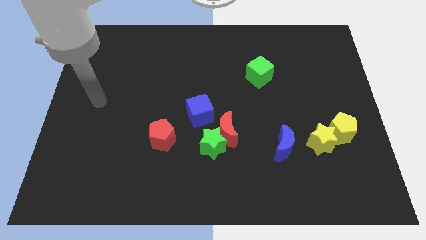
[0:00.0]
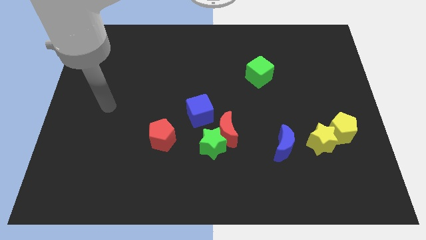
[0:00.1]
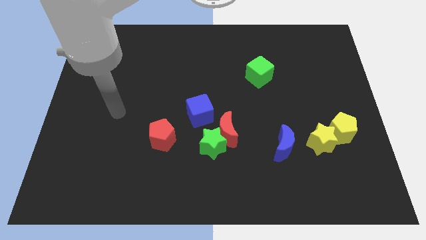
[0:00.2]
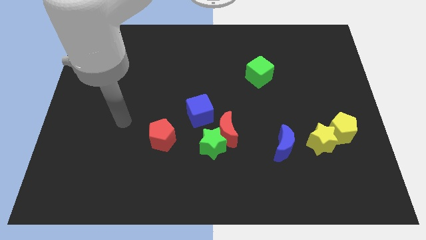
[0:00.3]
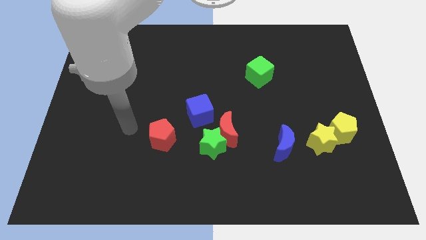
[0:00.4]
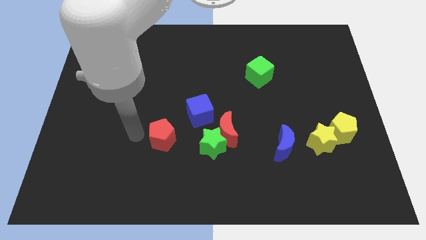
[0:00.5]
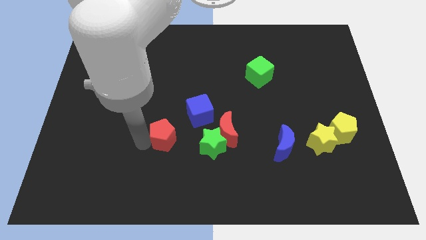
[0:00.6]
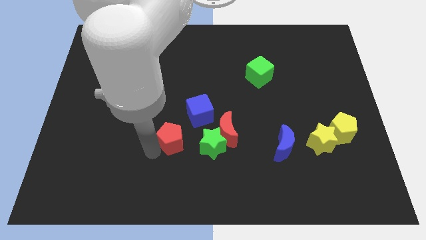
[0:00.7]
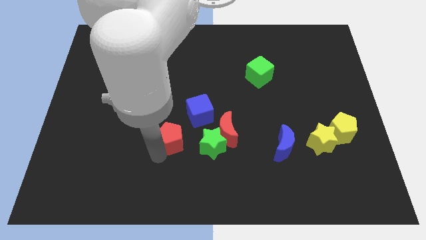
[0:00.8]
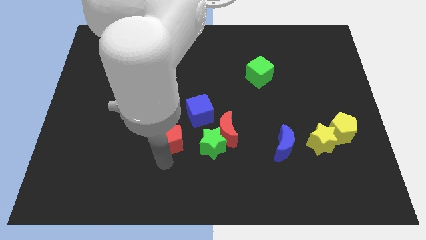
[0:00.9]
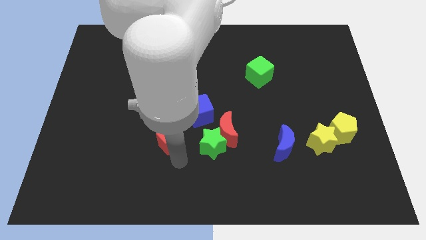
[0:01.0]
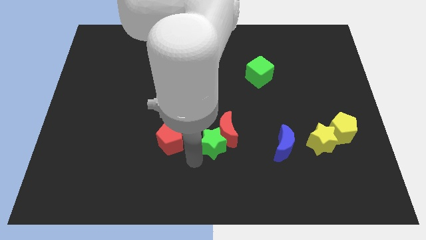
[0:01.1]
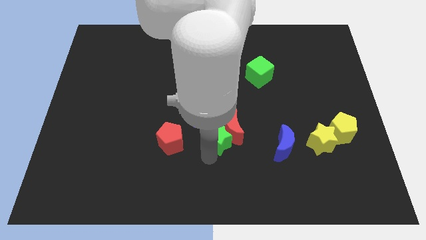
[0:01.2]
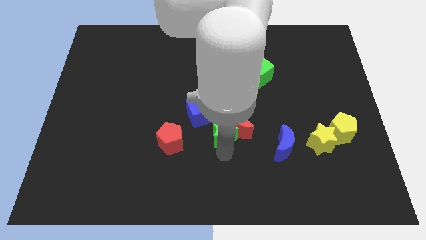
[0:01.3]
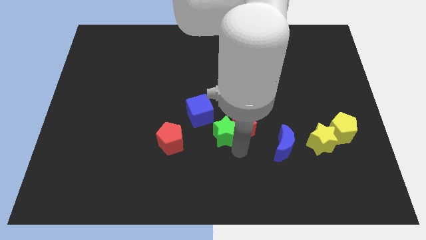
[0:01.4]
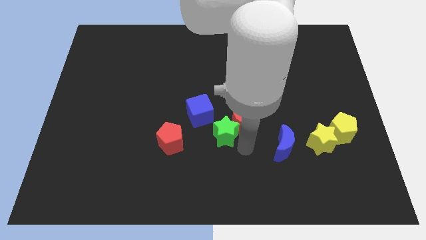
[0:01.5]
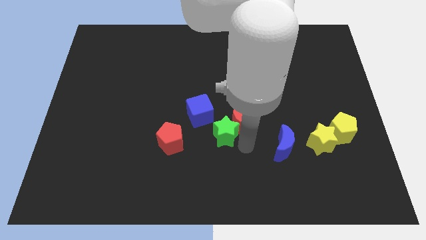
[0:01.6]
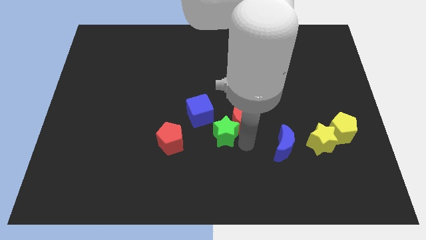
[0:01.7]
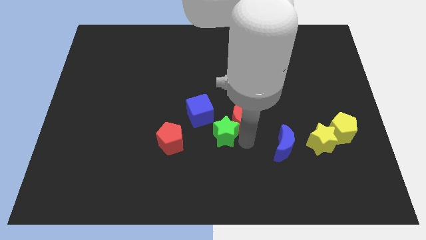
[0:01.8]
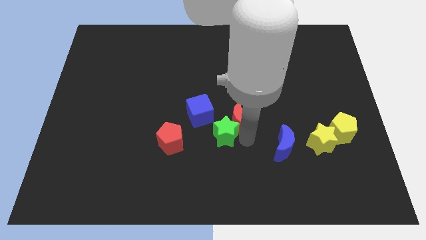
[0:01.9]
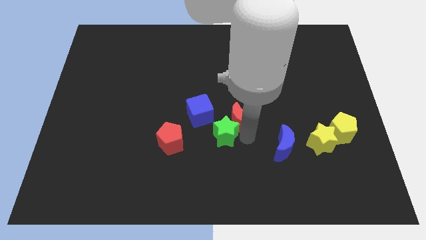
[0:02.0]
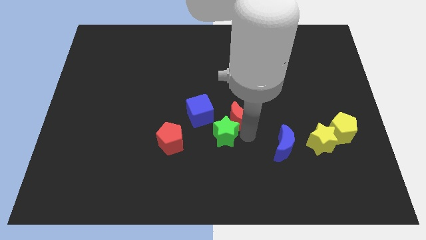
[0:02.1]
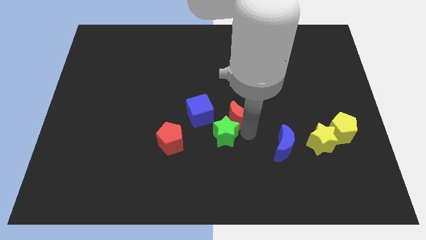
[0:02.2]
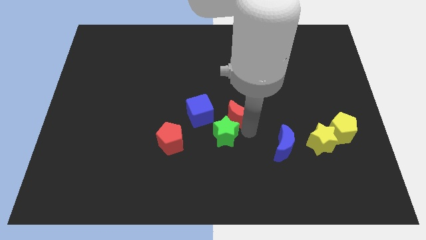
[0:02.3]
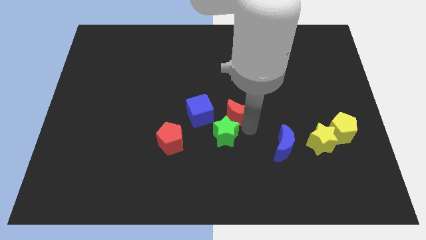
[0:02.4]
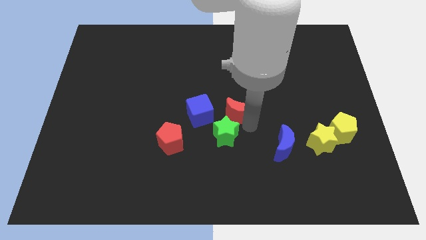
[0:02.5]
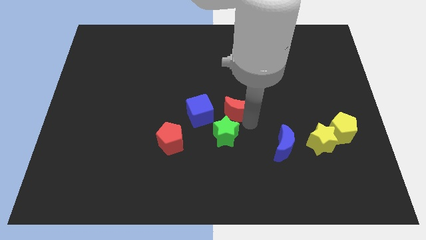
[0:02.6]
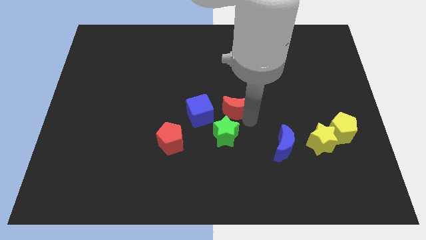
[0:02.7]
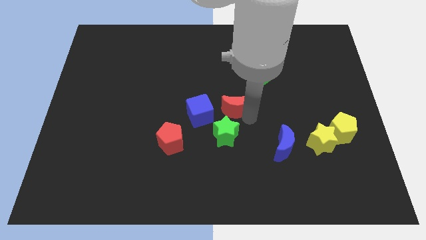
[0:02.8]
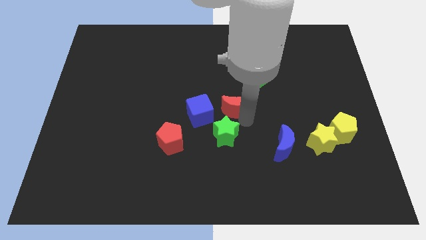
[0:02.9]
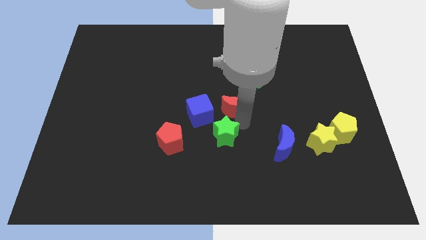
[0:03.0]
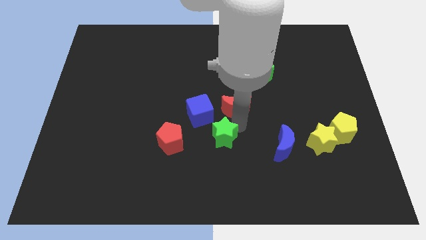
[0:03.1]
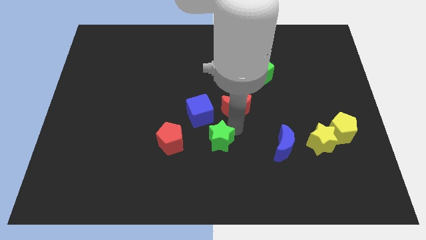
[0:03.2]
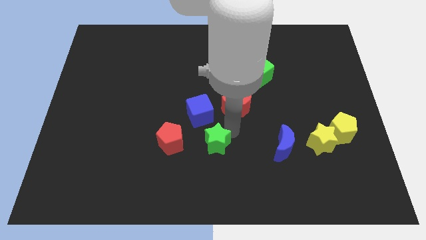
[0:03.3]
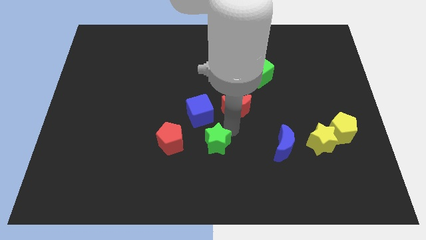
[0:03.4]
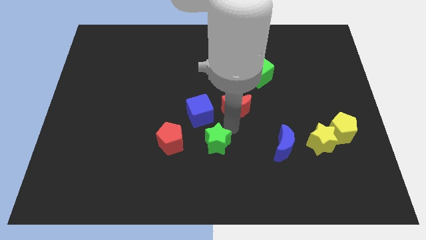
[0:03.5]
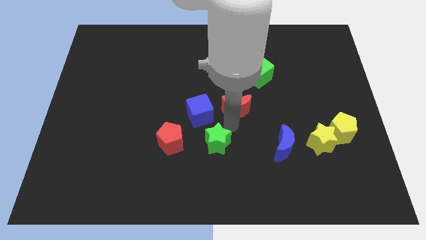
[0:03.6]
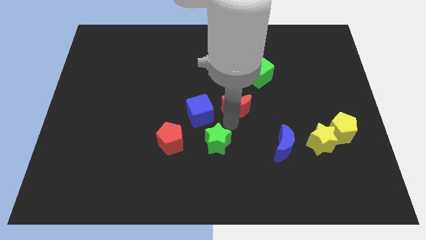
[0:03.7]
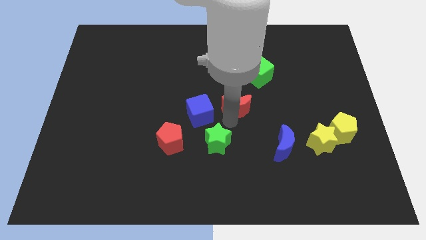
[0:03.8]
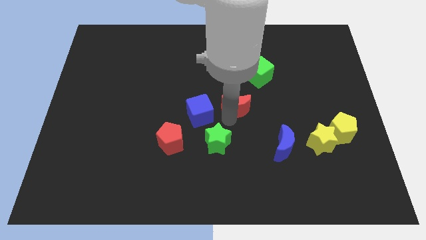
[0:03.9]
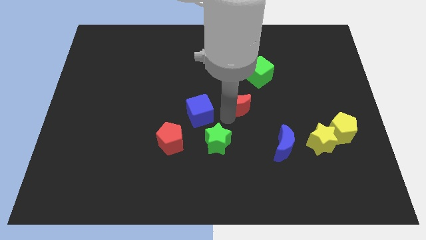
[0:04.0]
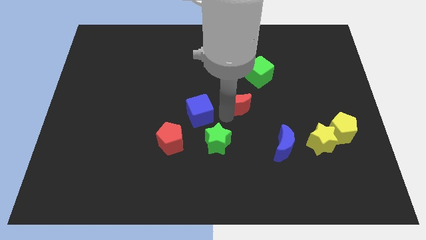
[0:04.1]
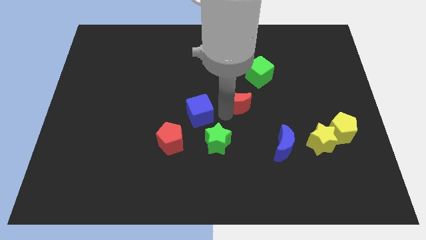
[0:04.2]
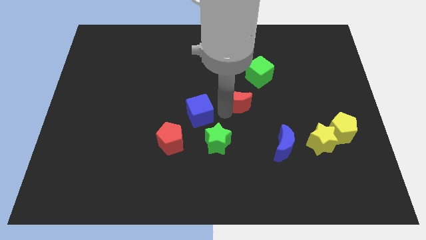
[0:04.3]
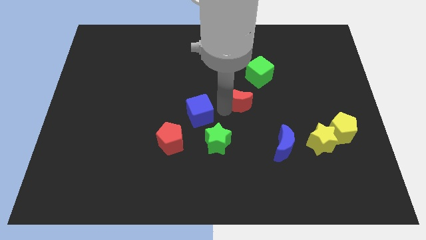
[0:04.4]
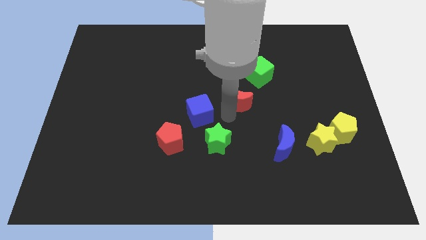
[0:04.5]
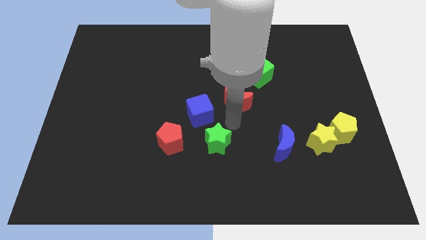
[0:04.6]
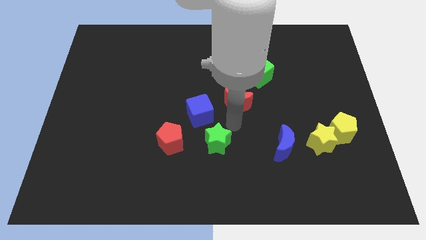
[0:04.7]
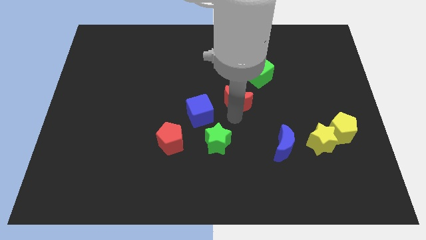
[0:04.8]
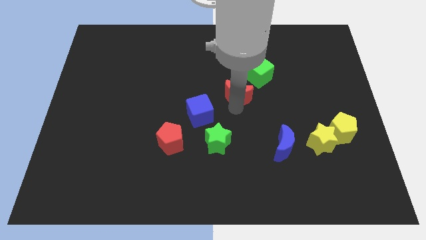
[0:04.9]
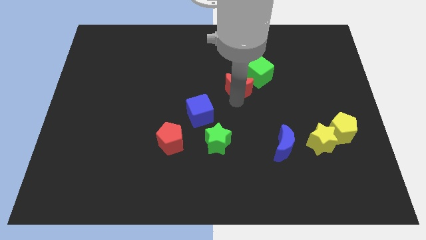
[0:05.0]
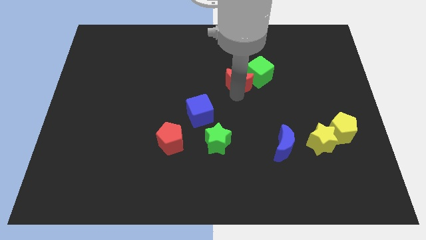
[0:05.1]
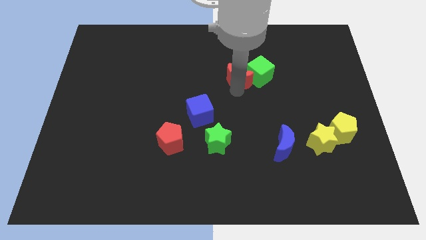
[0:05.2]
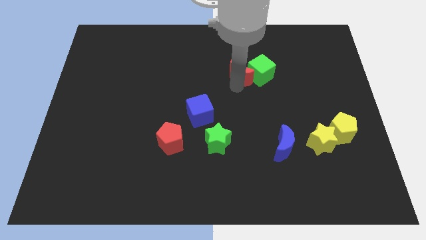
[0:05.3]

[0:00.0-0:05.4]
slide the red moon diagonally up and to the left of the green cube

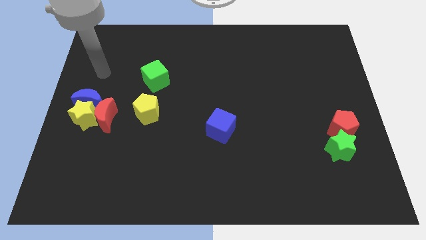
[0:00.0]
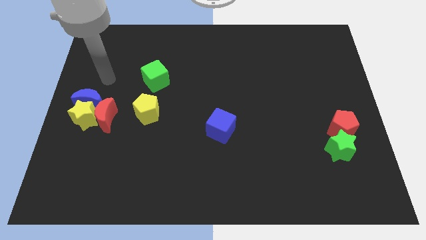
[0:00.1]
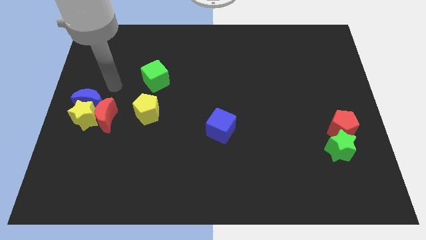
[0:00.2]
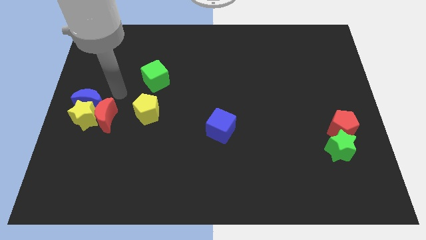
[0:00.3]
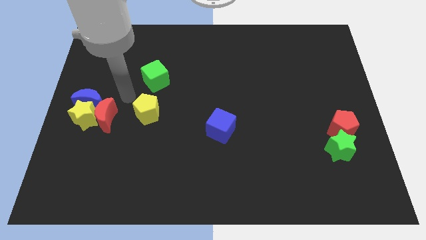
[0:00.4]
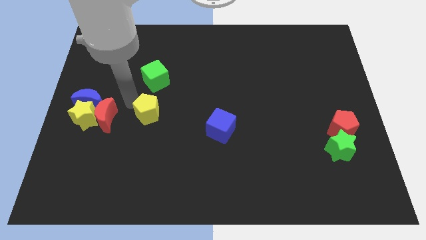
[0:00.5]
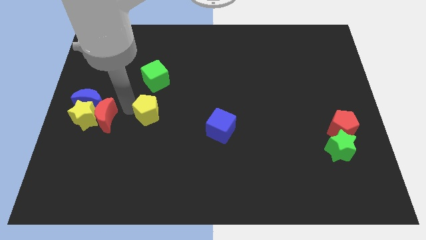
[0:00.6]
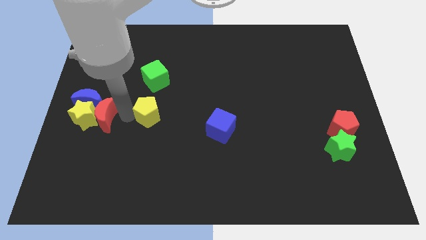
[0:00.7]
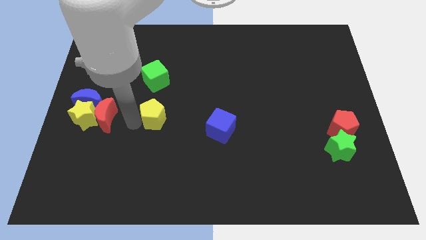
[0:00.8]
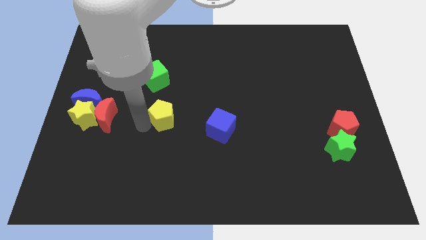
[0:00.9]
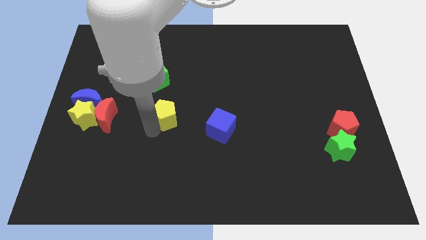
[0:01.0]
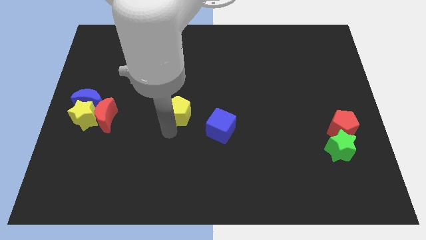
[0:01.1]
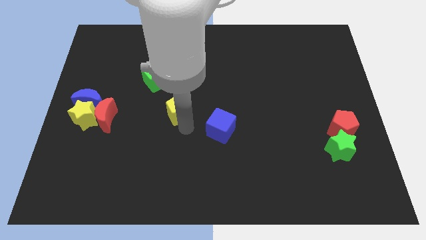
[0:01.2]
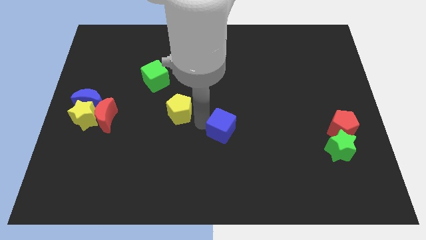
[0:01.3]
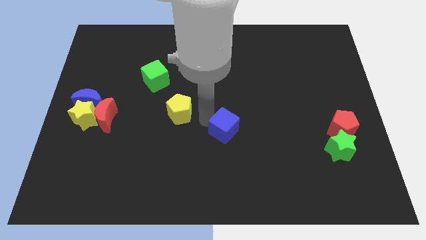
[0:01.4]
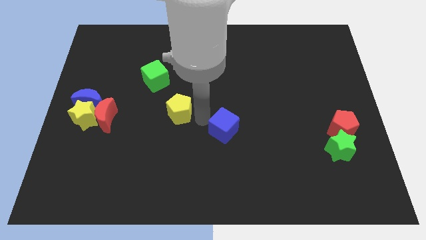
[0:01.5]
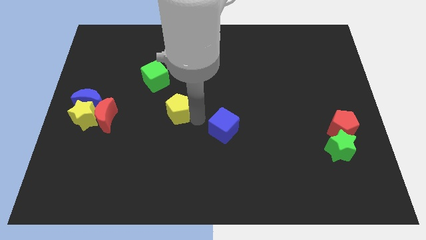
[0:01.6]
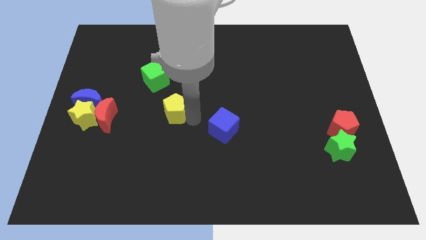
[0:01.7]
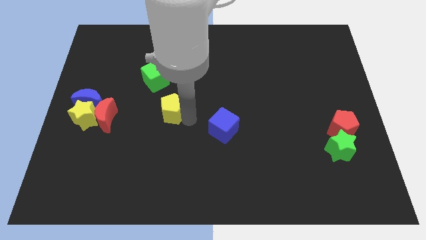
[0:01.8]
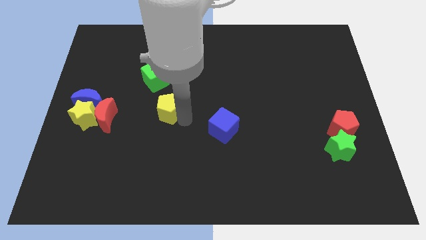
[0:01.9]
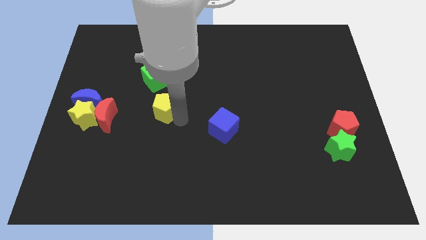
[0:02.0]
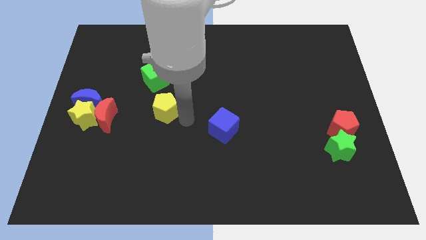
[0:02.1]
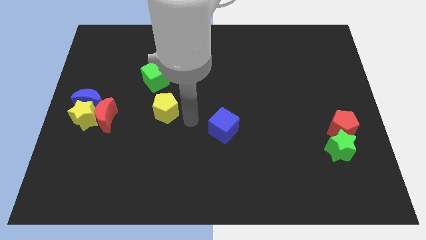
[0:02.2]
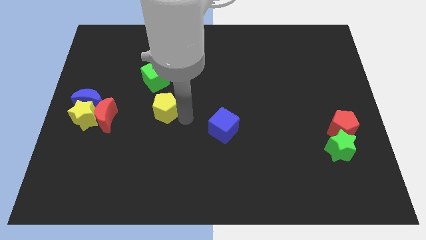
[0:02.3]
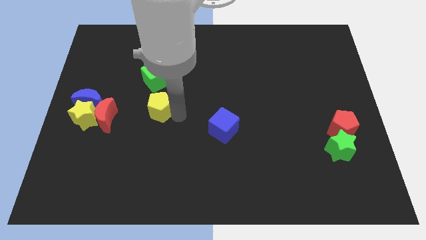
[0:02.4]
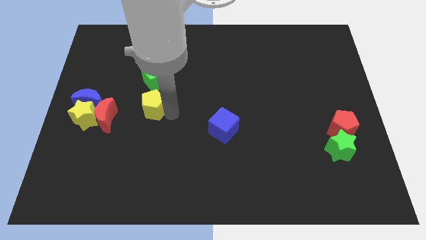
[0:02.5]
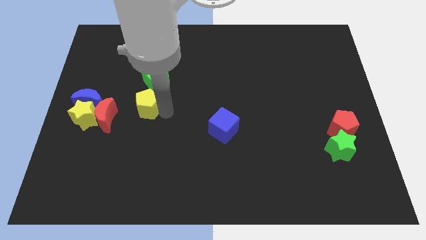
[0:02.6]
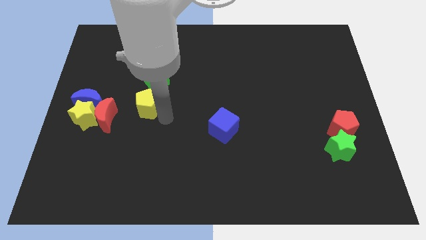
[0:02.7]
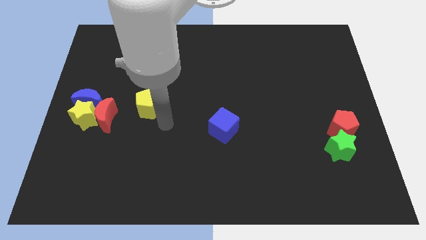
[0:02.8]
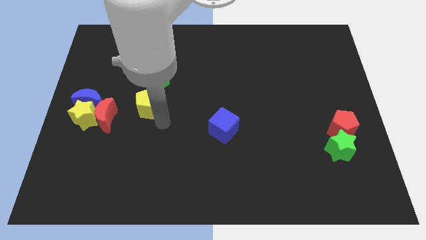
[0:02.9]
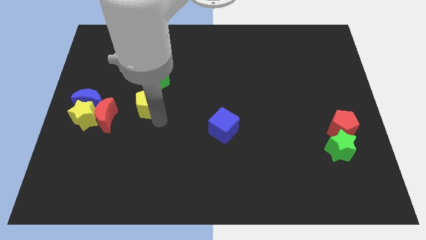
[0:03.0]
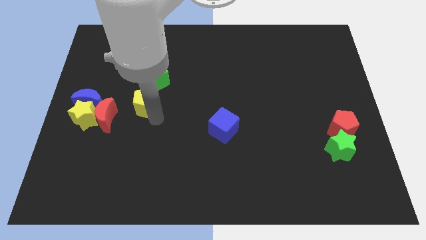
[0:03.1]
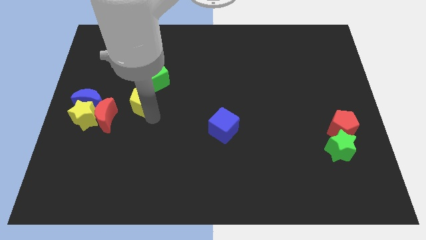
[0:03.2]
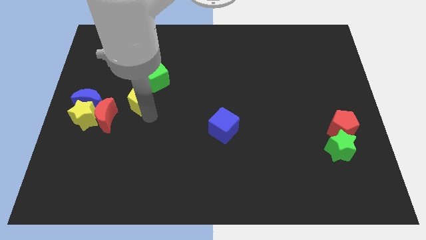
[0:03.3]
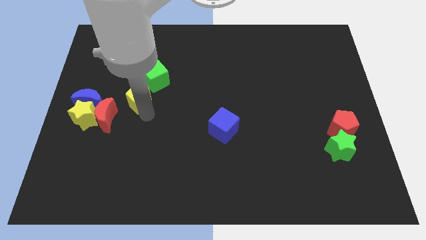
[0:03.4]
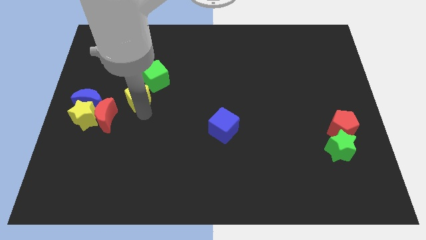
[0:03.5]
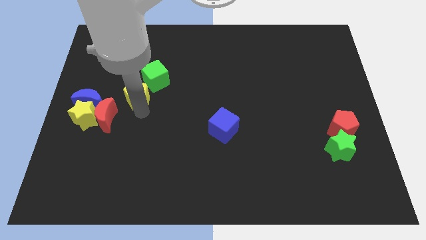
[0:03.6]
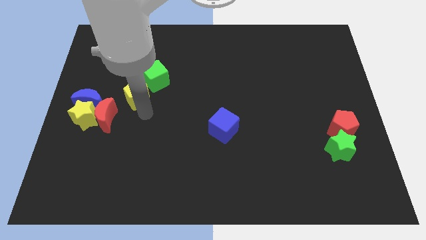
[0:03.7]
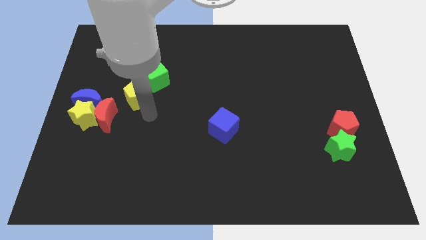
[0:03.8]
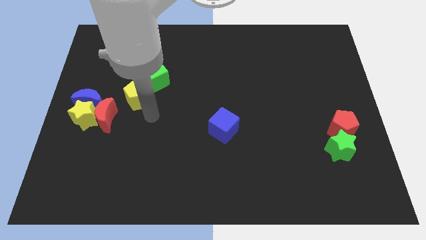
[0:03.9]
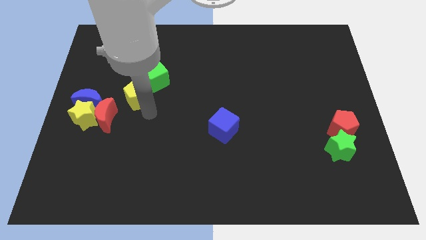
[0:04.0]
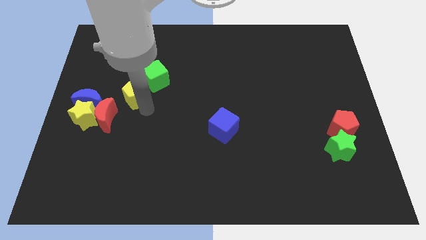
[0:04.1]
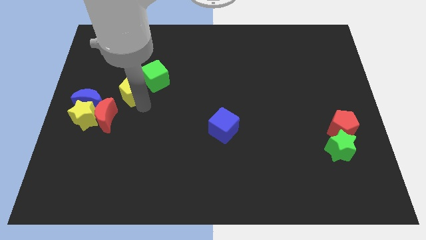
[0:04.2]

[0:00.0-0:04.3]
slide the yellow pentagon to the left side of the green cube
